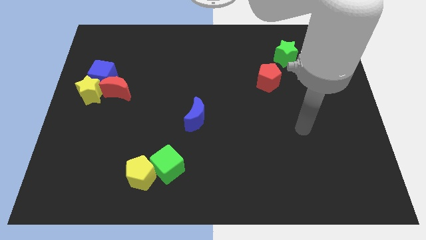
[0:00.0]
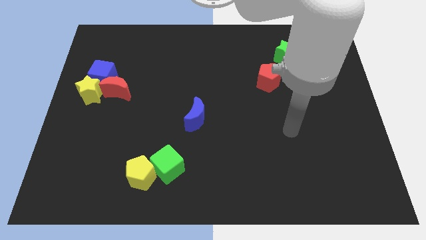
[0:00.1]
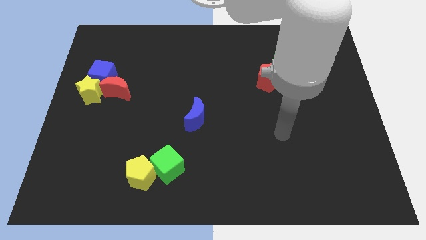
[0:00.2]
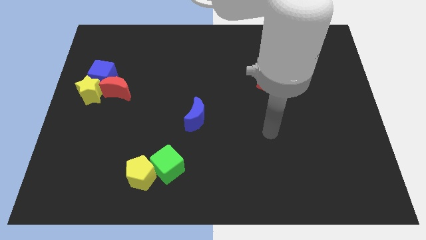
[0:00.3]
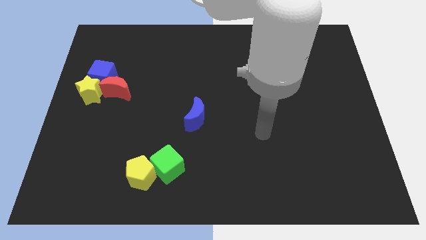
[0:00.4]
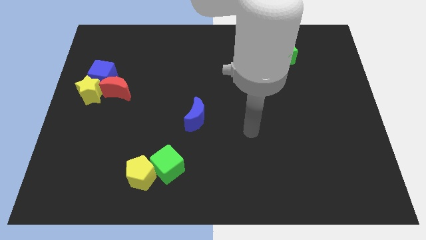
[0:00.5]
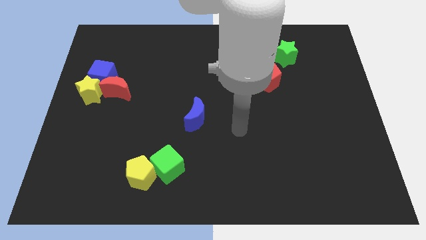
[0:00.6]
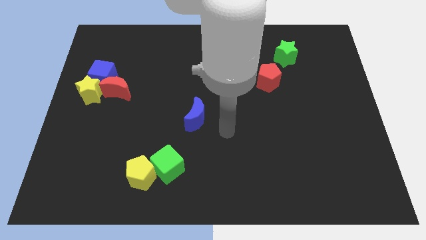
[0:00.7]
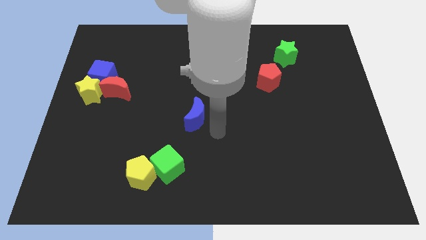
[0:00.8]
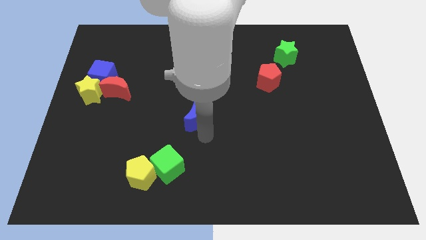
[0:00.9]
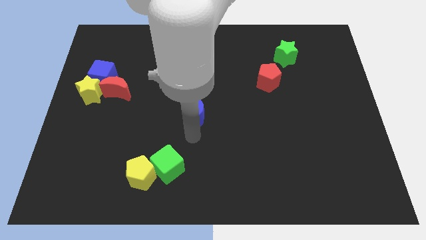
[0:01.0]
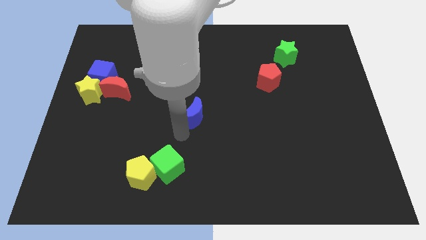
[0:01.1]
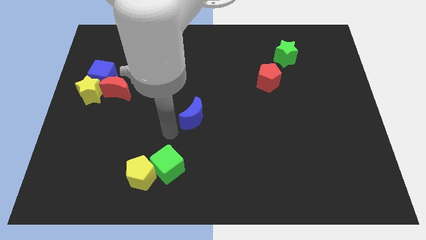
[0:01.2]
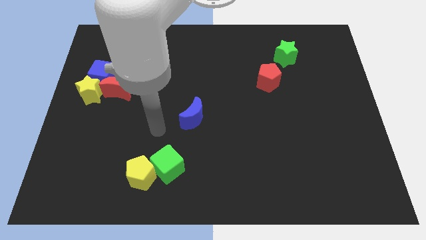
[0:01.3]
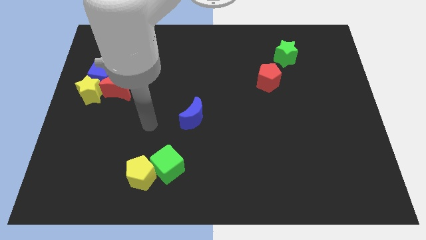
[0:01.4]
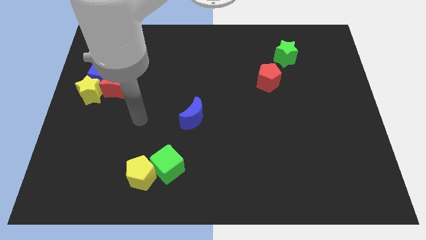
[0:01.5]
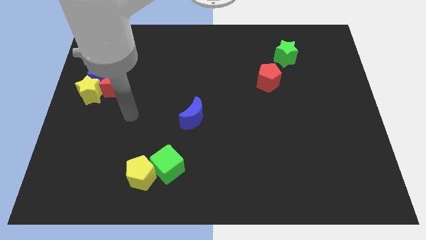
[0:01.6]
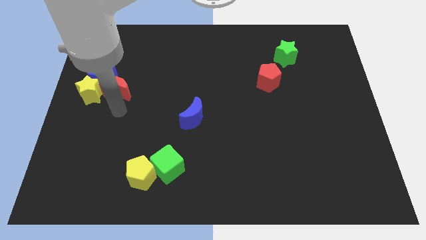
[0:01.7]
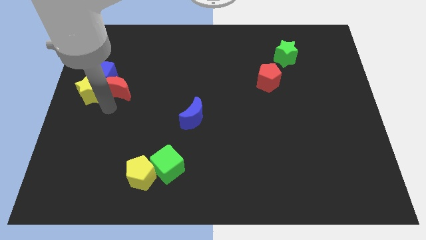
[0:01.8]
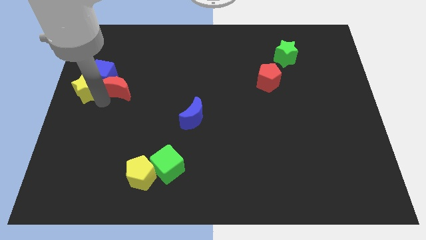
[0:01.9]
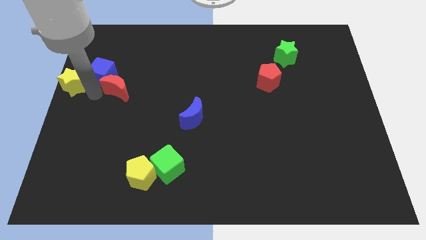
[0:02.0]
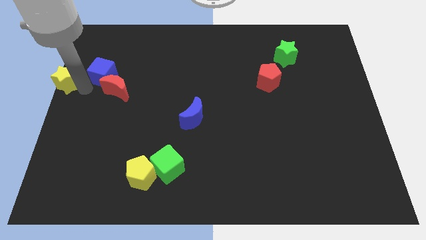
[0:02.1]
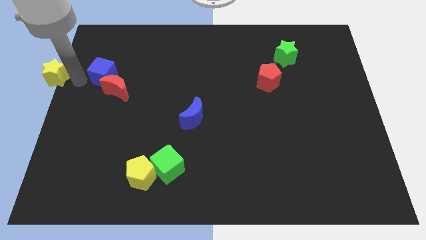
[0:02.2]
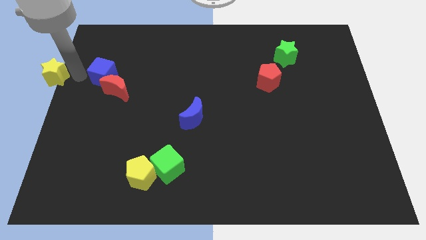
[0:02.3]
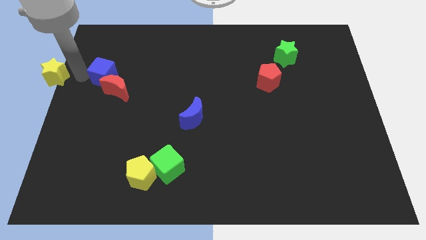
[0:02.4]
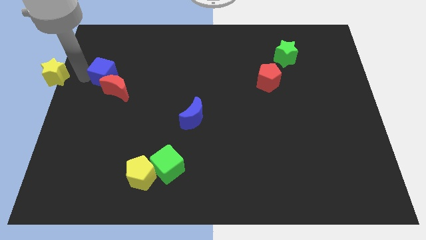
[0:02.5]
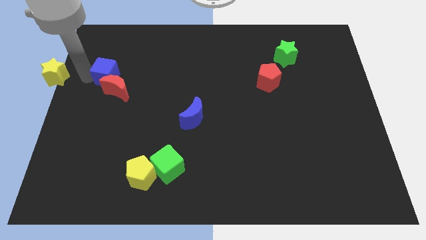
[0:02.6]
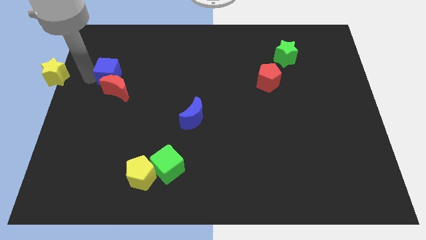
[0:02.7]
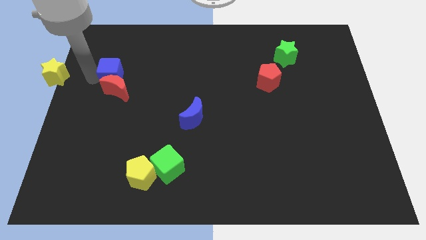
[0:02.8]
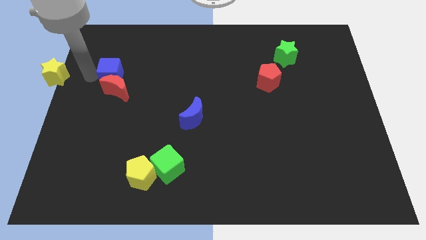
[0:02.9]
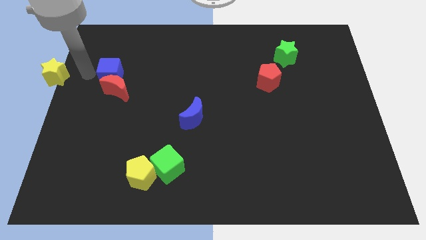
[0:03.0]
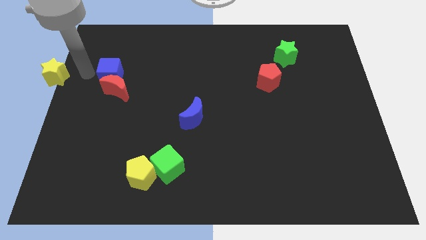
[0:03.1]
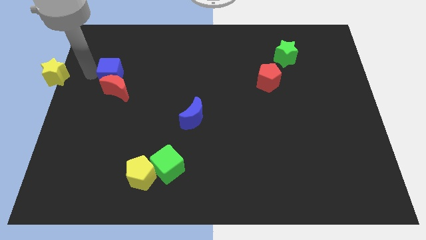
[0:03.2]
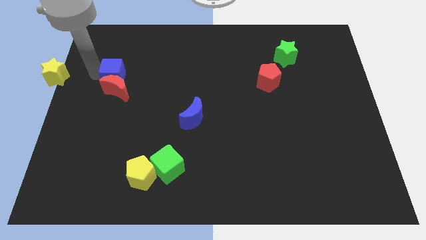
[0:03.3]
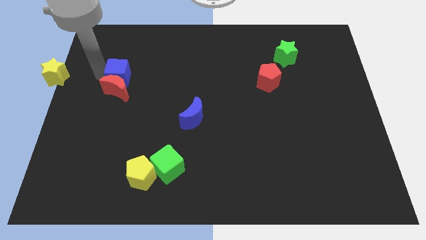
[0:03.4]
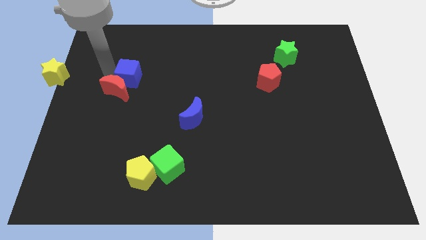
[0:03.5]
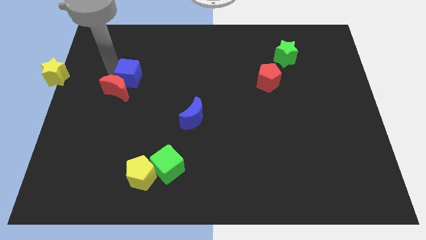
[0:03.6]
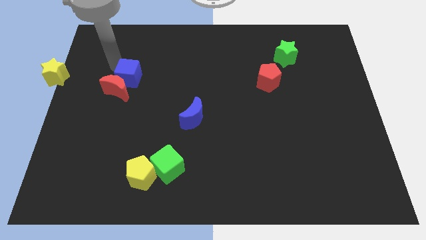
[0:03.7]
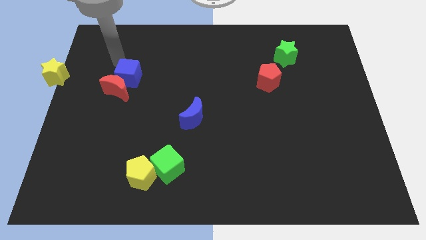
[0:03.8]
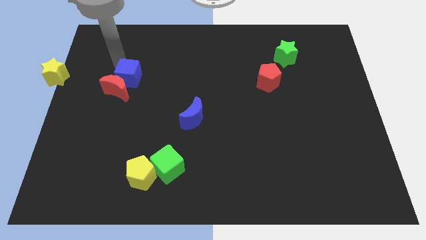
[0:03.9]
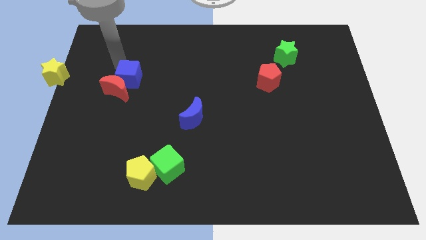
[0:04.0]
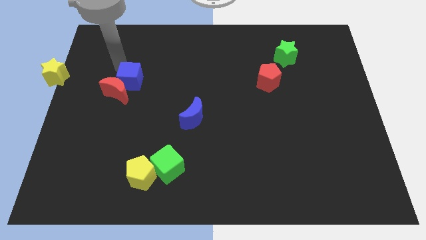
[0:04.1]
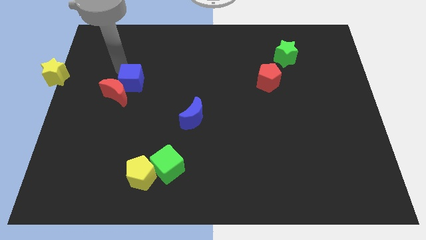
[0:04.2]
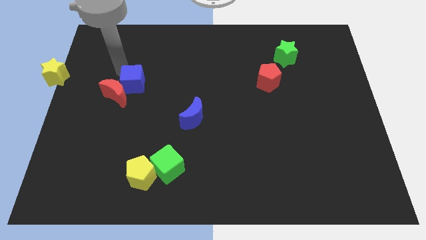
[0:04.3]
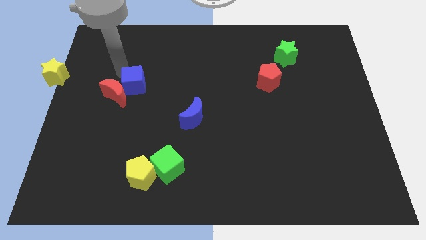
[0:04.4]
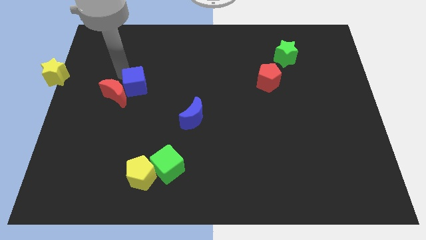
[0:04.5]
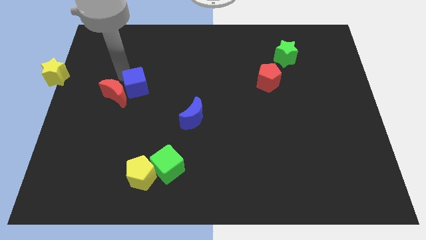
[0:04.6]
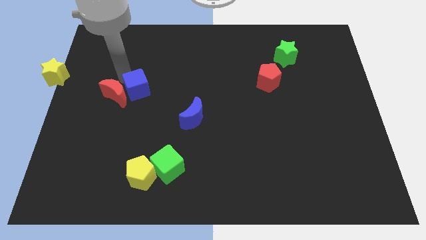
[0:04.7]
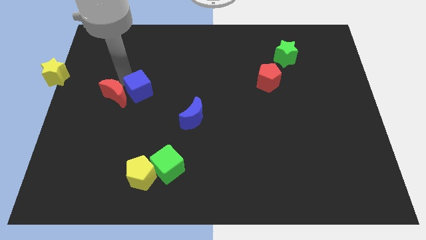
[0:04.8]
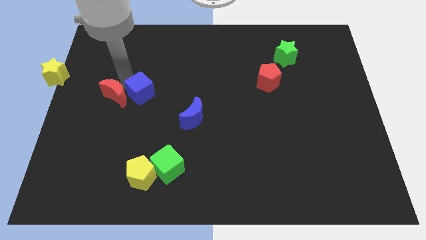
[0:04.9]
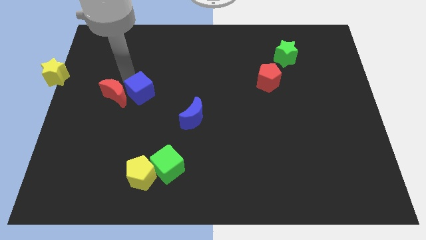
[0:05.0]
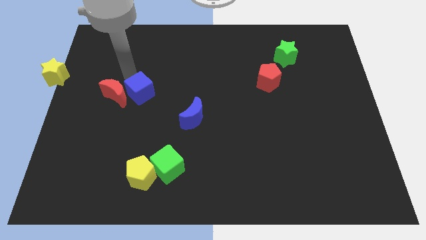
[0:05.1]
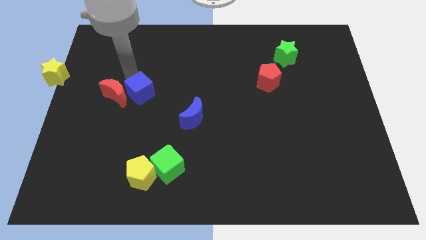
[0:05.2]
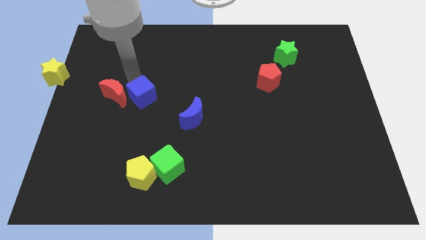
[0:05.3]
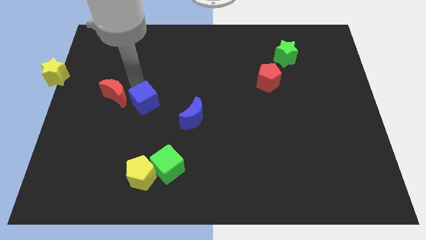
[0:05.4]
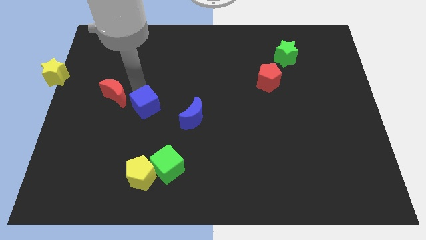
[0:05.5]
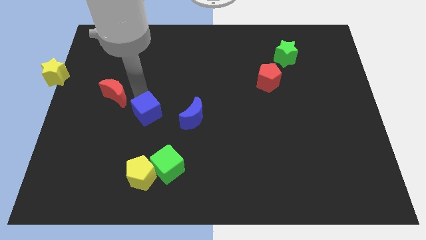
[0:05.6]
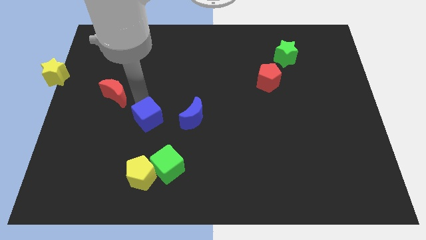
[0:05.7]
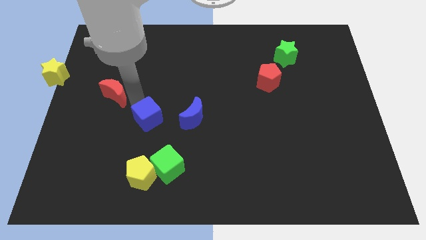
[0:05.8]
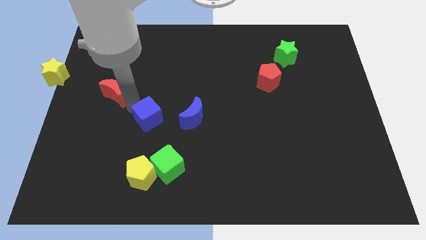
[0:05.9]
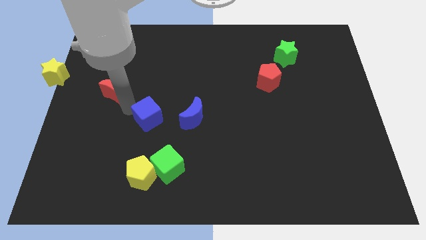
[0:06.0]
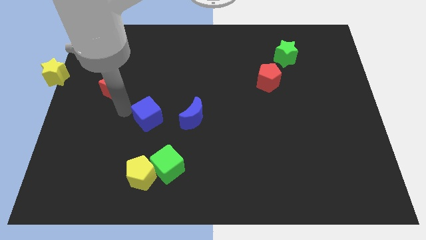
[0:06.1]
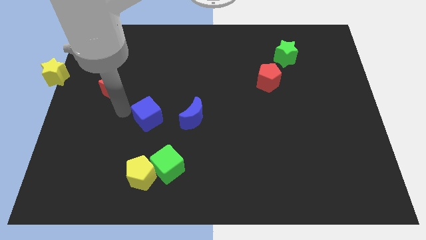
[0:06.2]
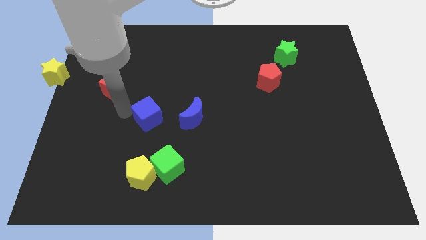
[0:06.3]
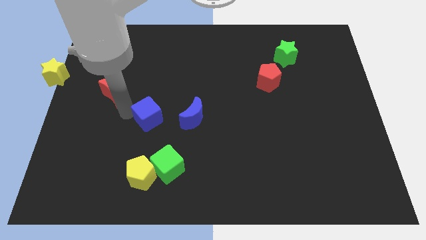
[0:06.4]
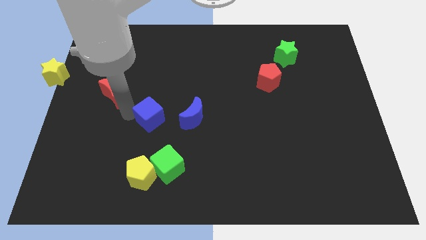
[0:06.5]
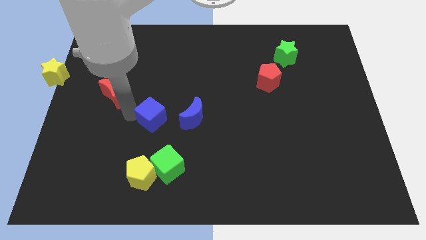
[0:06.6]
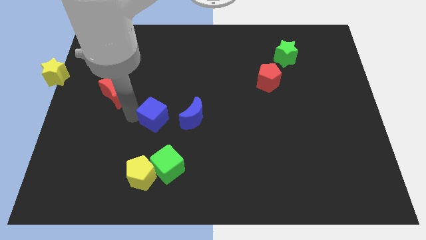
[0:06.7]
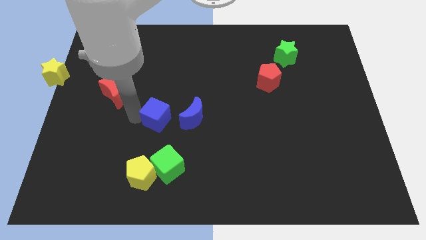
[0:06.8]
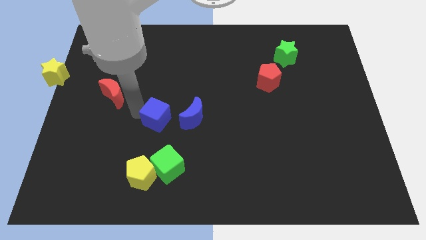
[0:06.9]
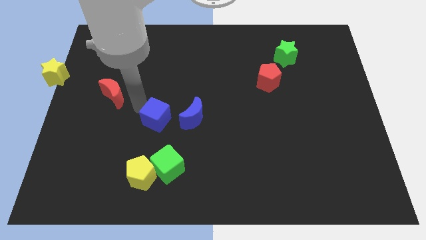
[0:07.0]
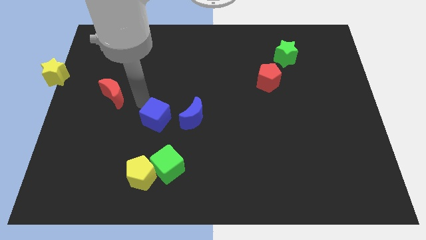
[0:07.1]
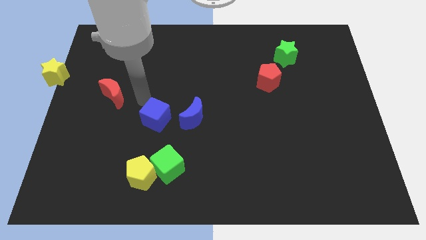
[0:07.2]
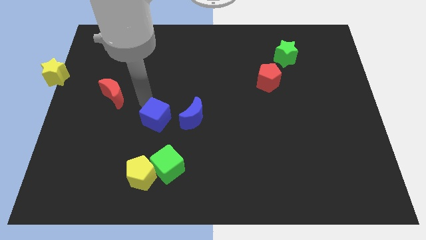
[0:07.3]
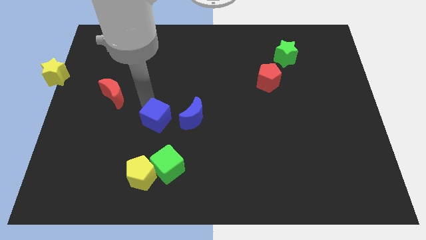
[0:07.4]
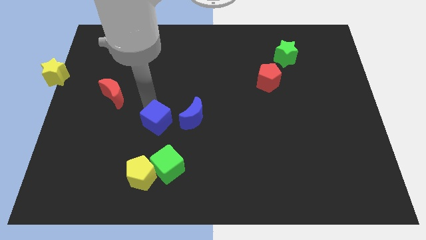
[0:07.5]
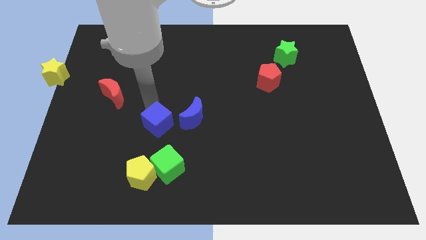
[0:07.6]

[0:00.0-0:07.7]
push the blue cube diagonally down and to the left of the blue moon
